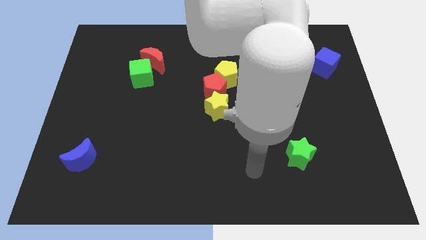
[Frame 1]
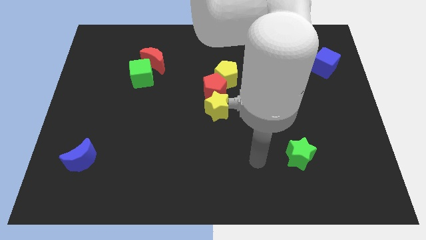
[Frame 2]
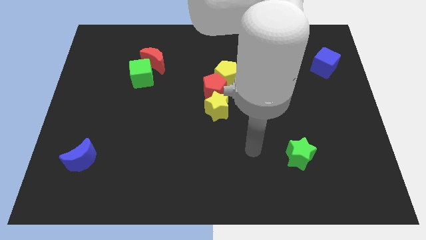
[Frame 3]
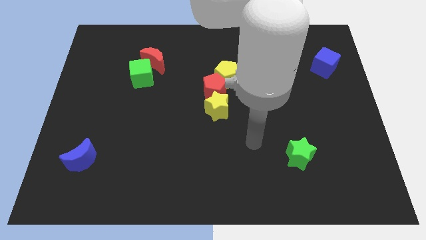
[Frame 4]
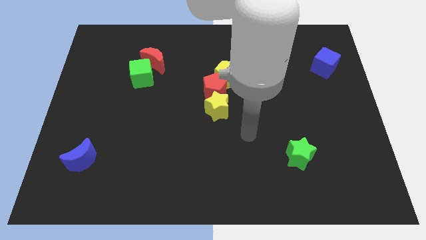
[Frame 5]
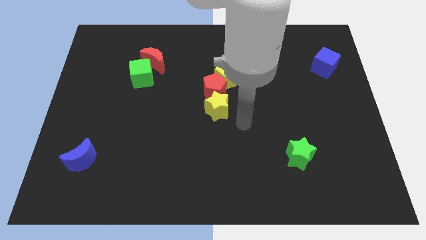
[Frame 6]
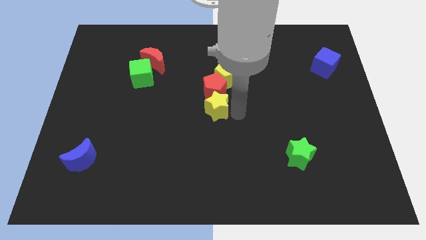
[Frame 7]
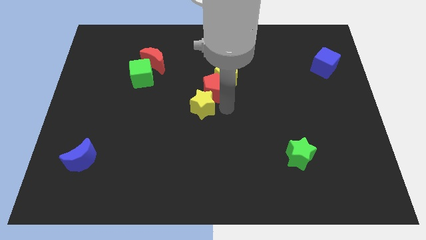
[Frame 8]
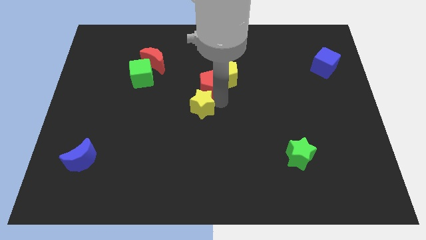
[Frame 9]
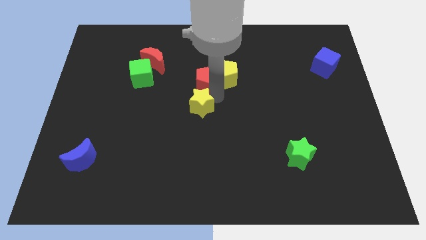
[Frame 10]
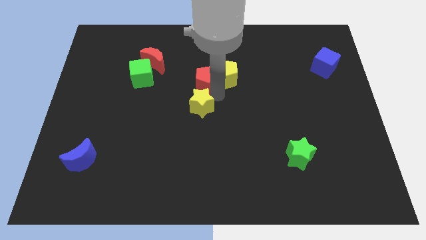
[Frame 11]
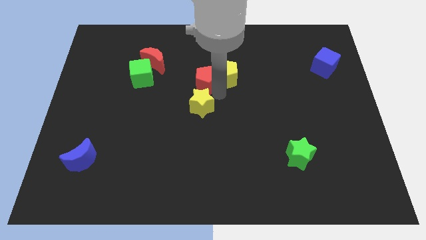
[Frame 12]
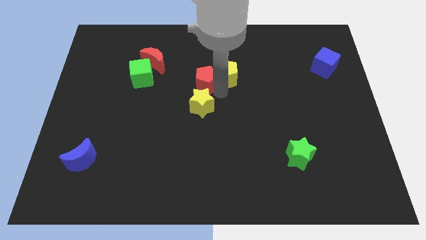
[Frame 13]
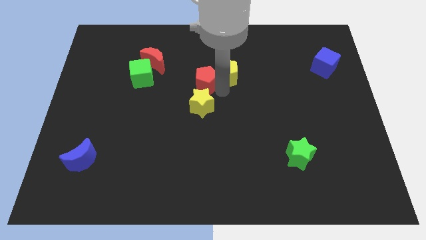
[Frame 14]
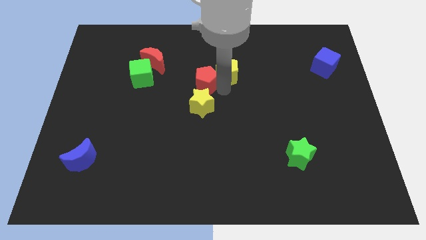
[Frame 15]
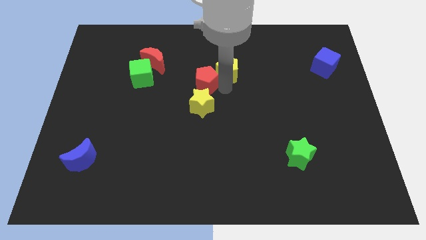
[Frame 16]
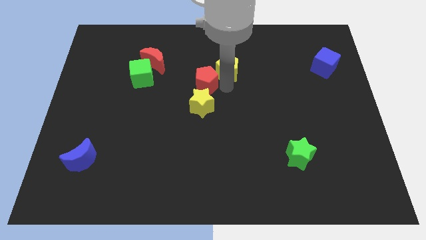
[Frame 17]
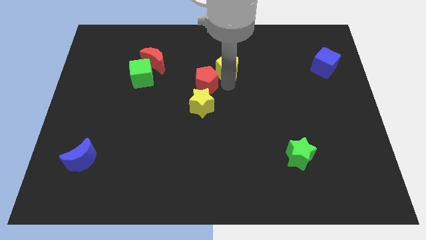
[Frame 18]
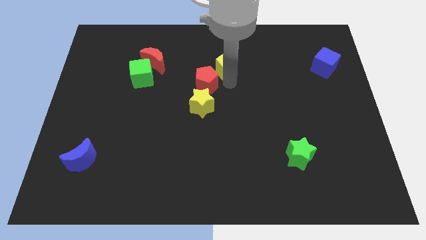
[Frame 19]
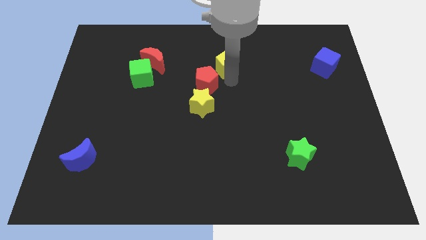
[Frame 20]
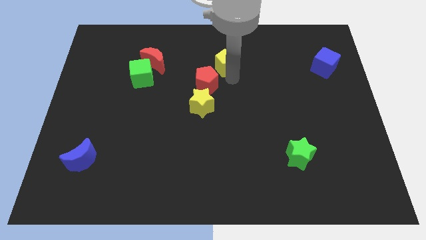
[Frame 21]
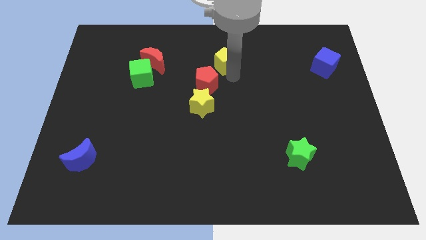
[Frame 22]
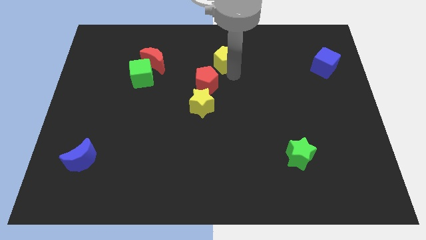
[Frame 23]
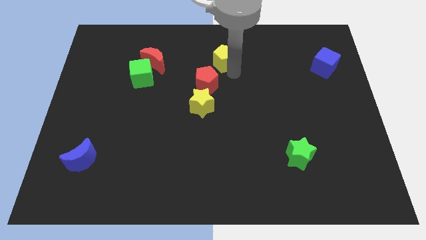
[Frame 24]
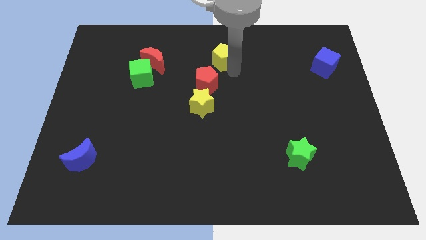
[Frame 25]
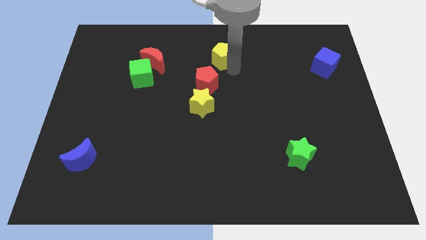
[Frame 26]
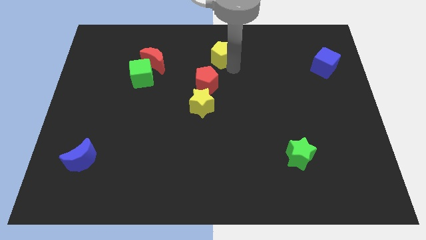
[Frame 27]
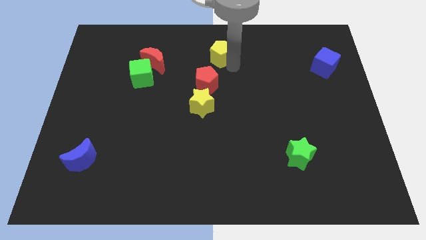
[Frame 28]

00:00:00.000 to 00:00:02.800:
move the yellow pentagon away from the red pentagon

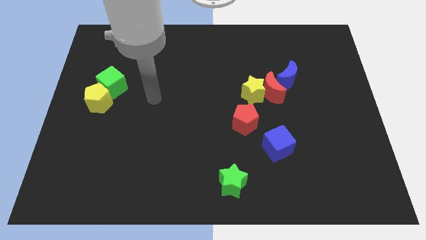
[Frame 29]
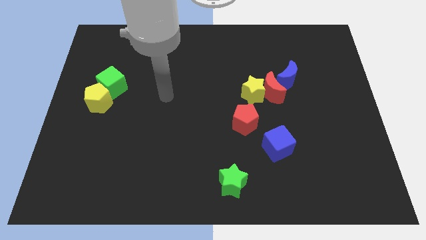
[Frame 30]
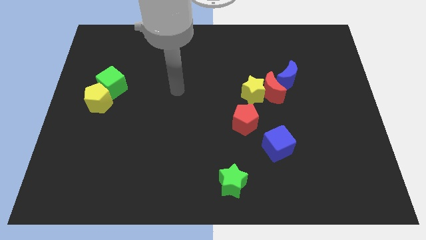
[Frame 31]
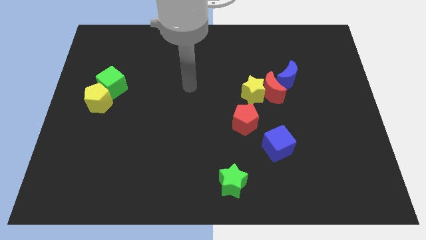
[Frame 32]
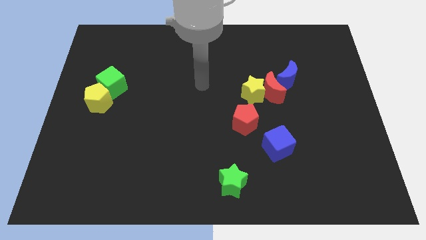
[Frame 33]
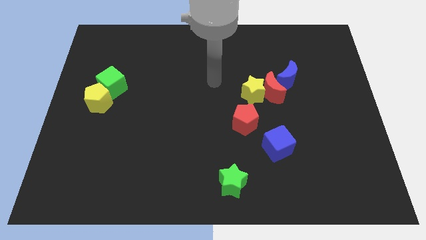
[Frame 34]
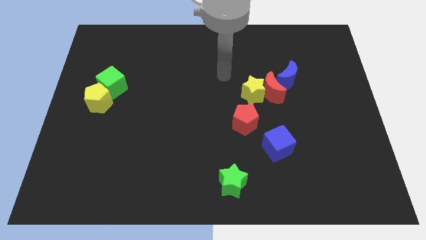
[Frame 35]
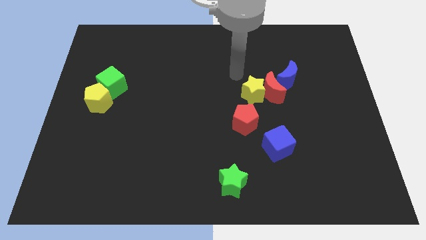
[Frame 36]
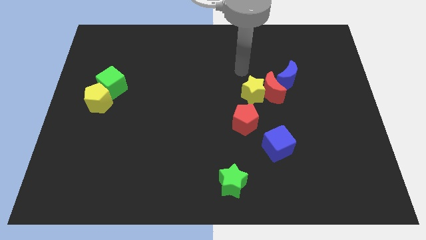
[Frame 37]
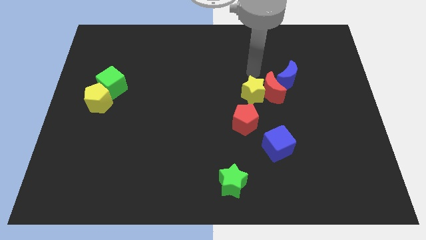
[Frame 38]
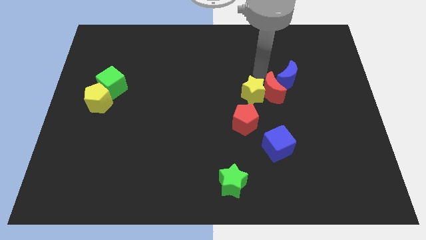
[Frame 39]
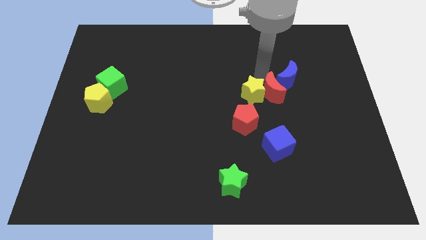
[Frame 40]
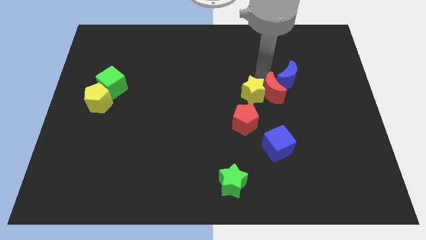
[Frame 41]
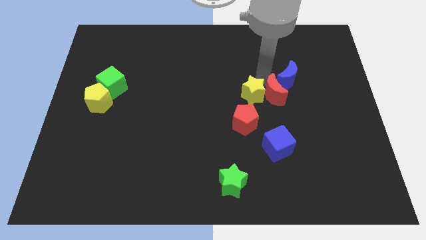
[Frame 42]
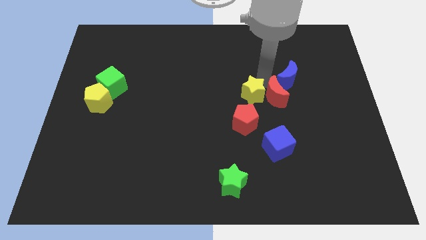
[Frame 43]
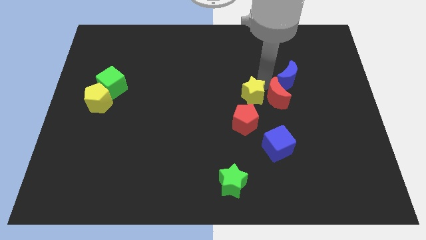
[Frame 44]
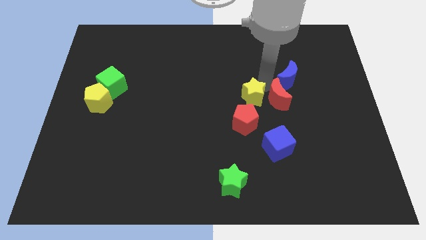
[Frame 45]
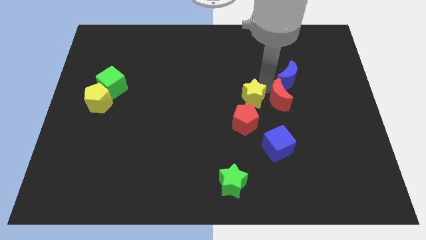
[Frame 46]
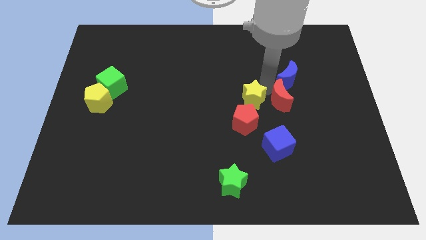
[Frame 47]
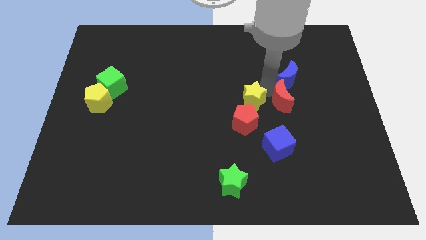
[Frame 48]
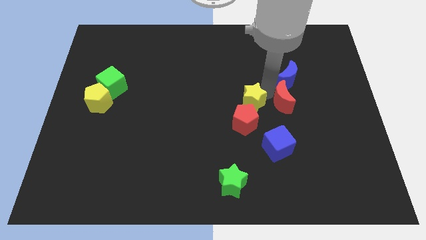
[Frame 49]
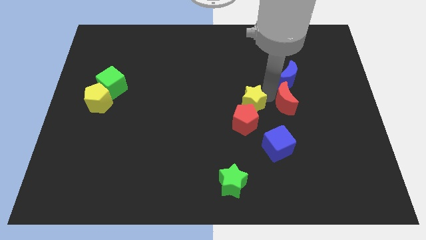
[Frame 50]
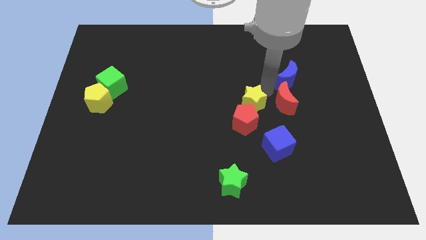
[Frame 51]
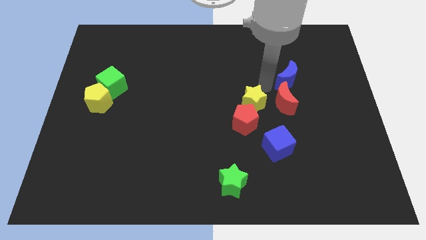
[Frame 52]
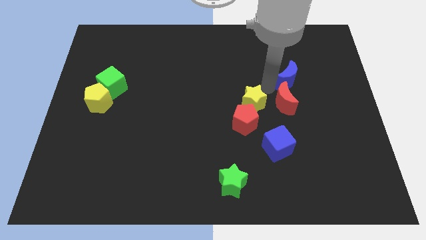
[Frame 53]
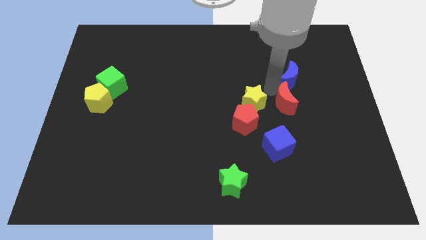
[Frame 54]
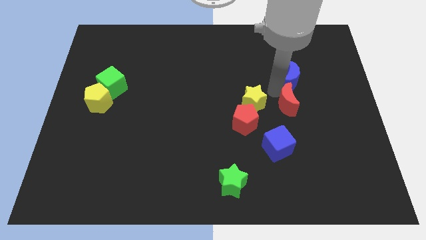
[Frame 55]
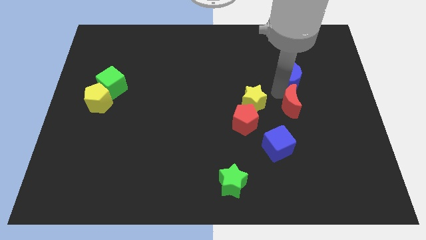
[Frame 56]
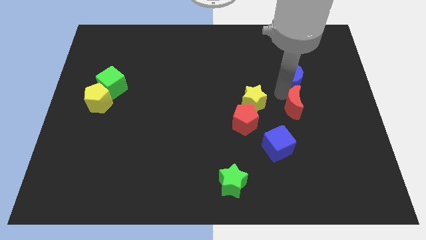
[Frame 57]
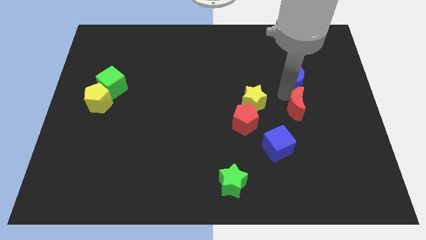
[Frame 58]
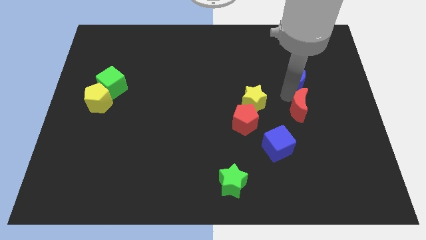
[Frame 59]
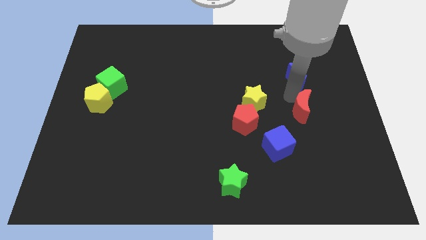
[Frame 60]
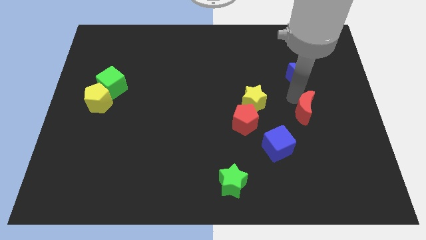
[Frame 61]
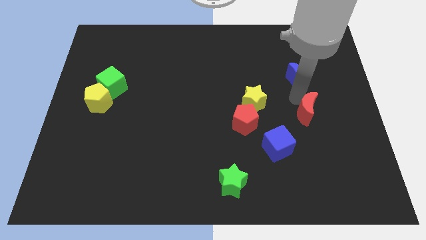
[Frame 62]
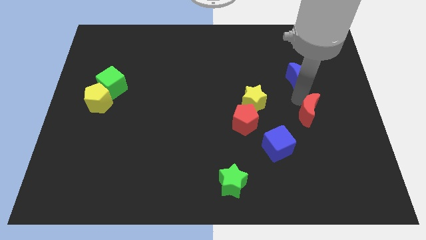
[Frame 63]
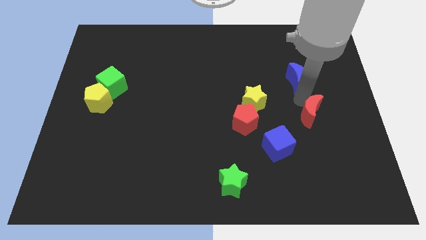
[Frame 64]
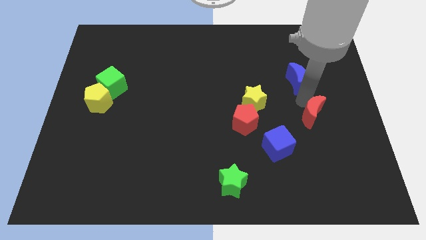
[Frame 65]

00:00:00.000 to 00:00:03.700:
move the red moon away from the yellow star and blue moon

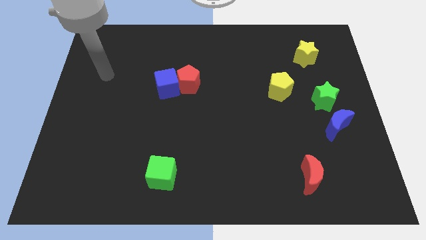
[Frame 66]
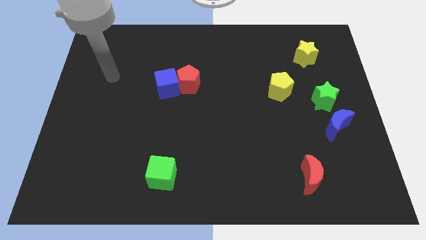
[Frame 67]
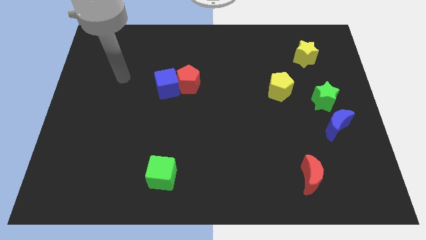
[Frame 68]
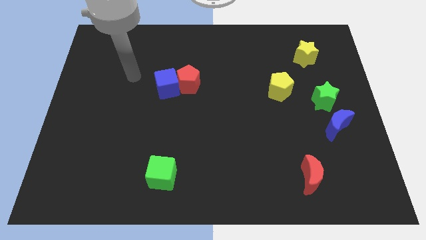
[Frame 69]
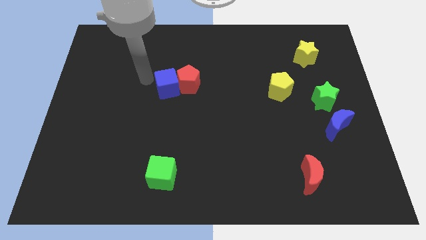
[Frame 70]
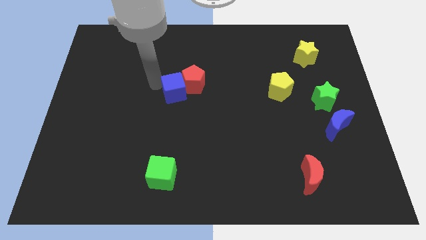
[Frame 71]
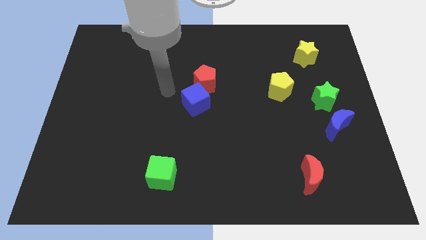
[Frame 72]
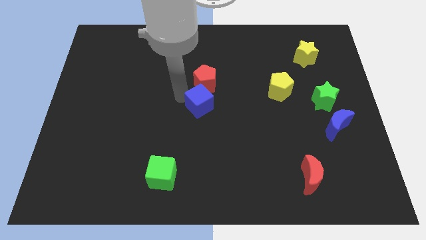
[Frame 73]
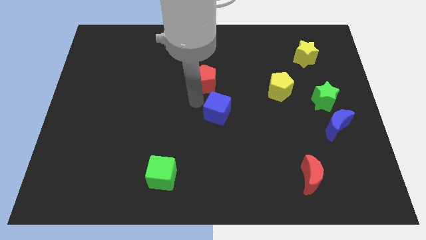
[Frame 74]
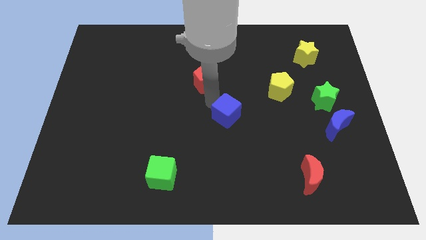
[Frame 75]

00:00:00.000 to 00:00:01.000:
separate the red pentagon from the blue cube

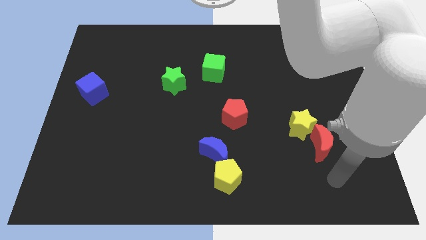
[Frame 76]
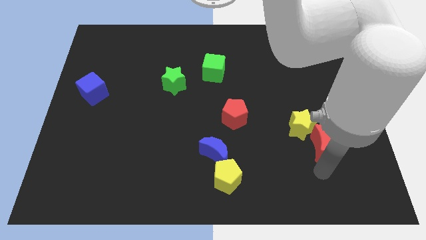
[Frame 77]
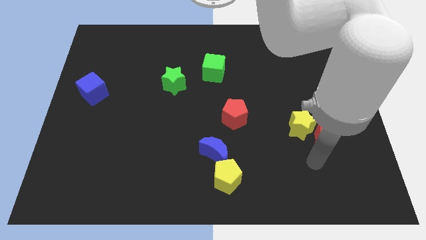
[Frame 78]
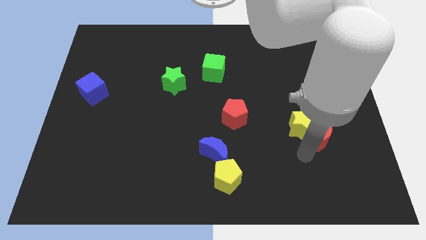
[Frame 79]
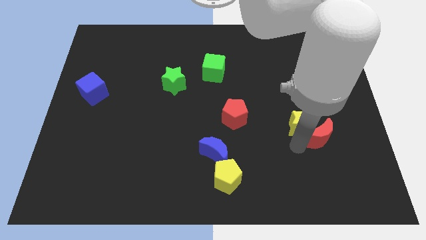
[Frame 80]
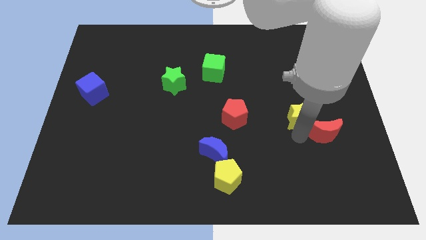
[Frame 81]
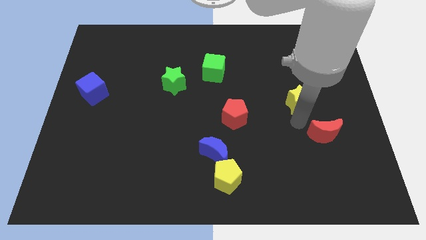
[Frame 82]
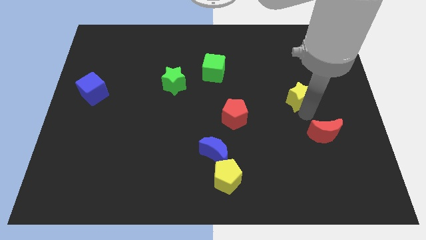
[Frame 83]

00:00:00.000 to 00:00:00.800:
pull the red moon apart from the yellow star

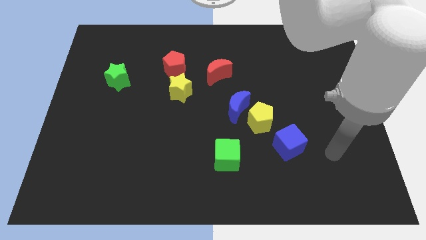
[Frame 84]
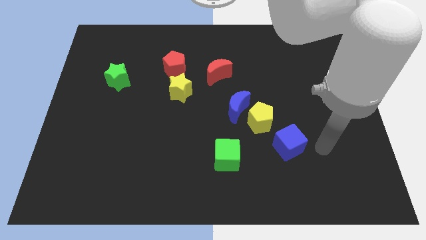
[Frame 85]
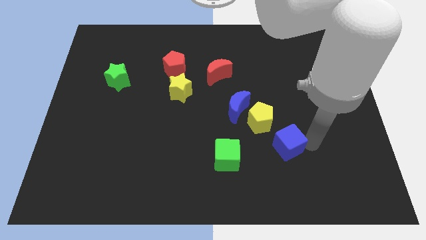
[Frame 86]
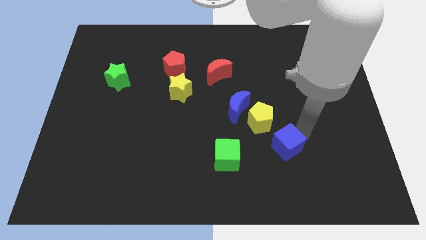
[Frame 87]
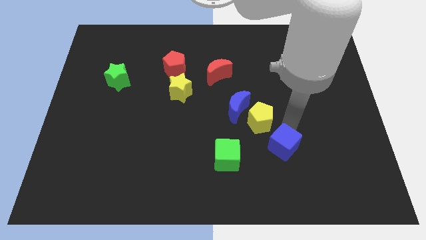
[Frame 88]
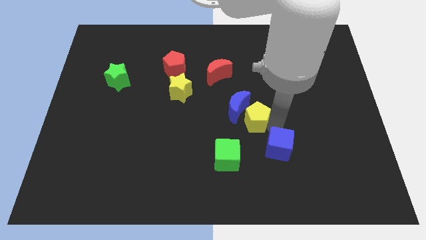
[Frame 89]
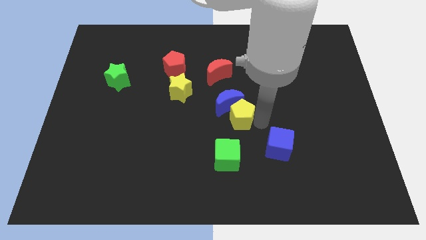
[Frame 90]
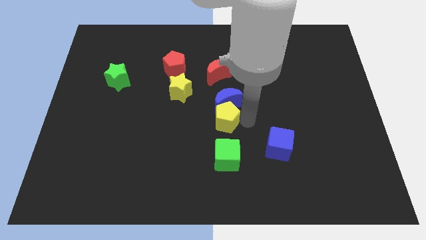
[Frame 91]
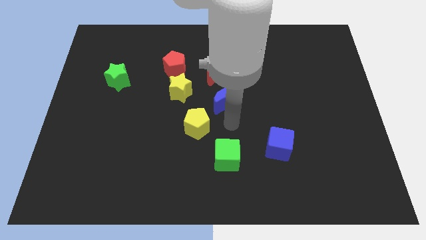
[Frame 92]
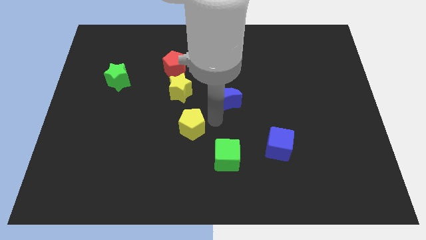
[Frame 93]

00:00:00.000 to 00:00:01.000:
move the blue moon away from the yellow pentagon
